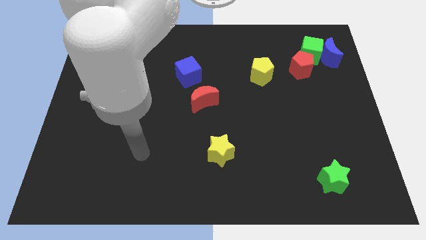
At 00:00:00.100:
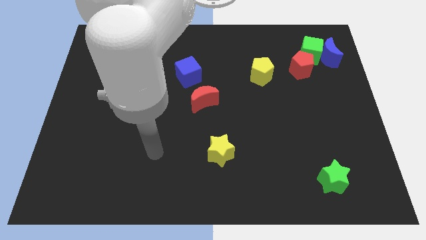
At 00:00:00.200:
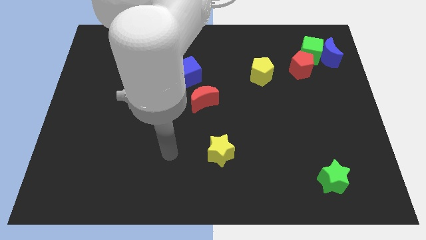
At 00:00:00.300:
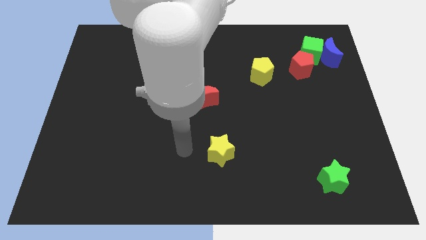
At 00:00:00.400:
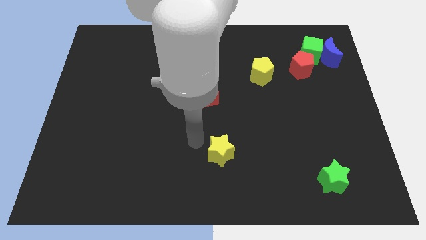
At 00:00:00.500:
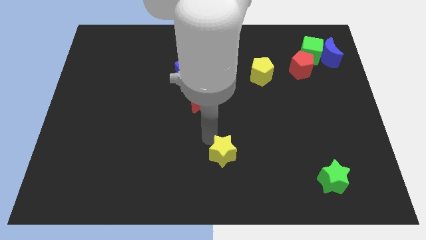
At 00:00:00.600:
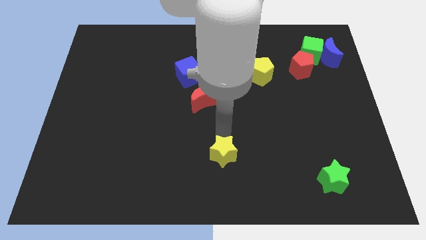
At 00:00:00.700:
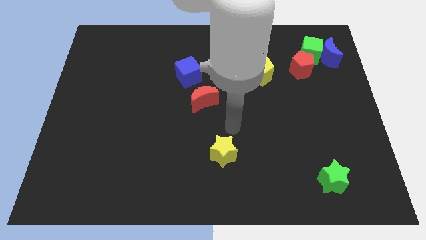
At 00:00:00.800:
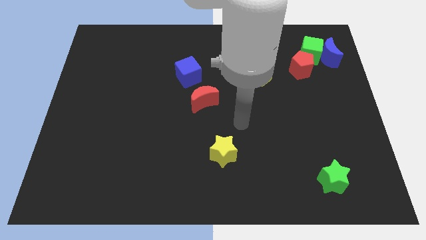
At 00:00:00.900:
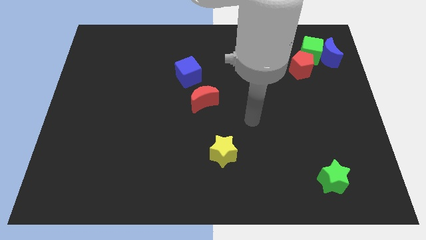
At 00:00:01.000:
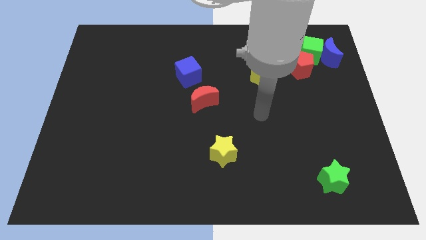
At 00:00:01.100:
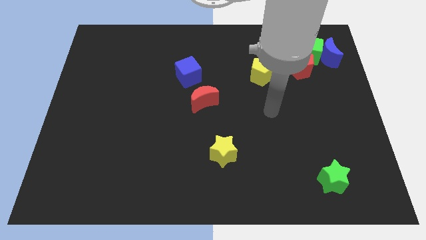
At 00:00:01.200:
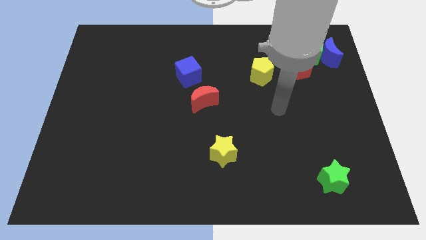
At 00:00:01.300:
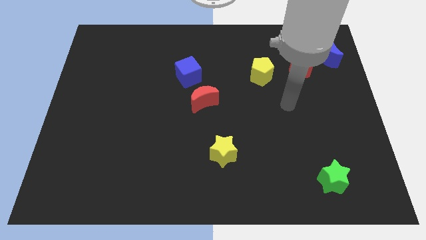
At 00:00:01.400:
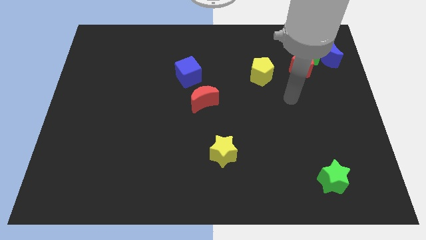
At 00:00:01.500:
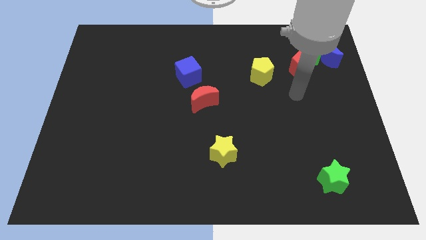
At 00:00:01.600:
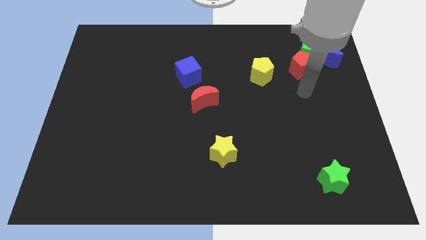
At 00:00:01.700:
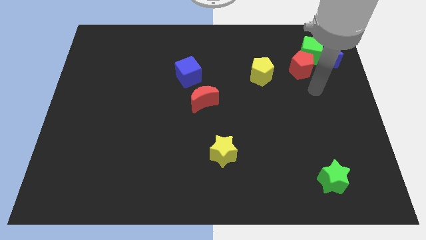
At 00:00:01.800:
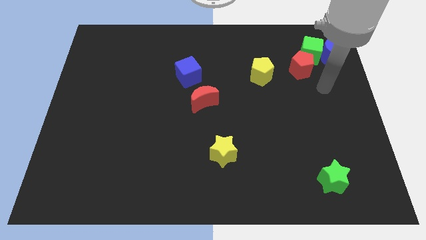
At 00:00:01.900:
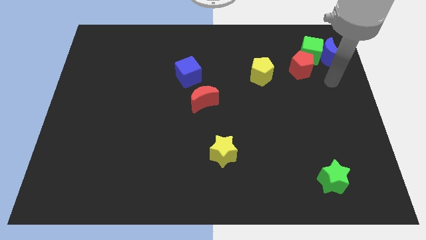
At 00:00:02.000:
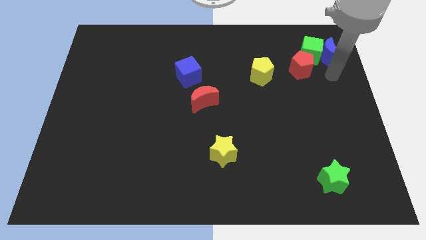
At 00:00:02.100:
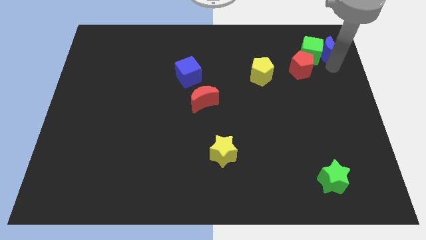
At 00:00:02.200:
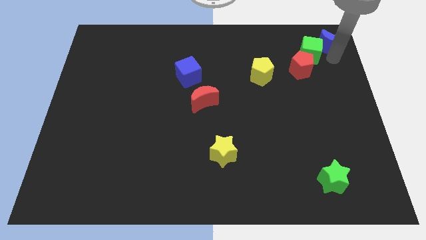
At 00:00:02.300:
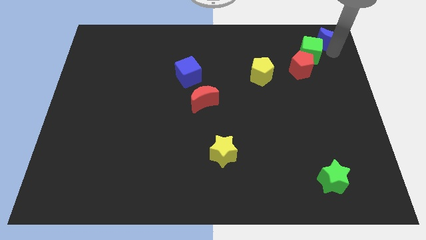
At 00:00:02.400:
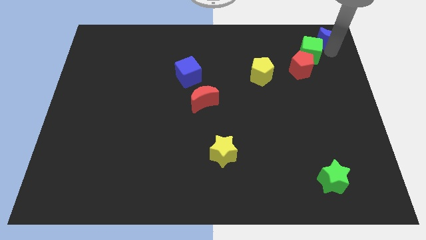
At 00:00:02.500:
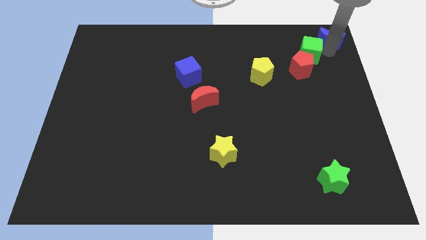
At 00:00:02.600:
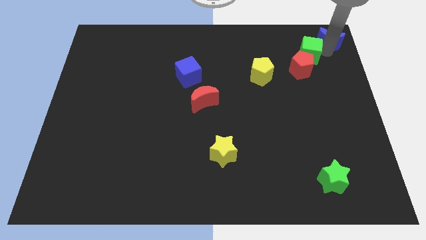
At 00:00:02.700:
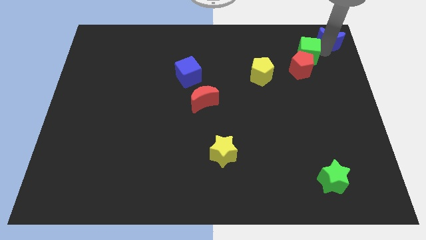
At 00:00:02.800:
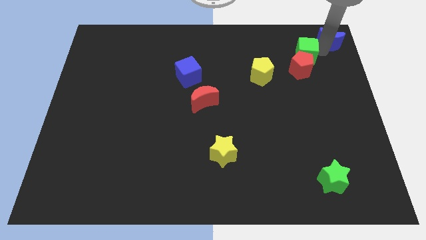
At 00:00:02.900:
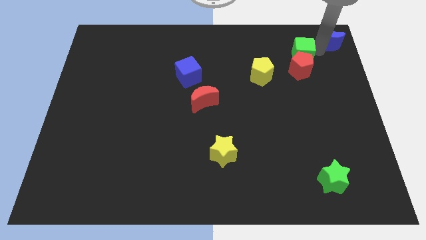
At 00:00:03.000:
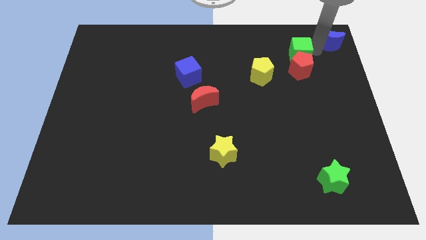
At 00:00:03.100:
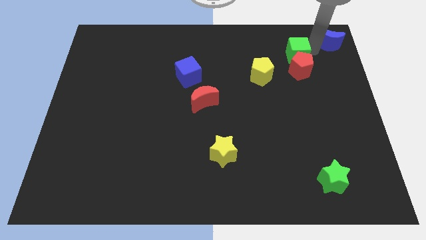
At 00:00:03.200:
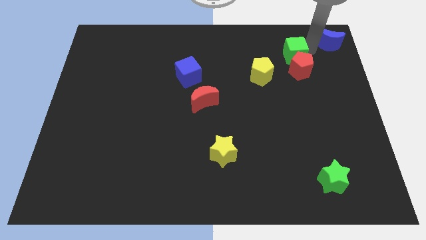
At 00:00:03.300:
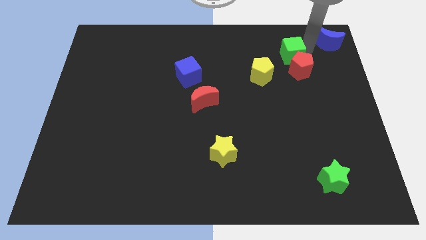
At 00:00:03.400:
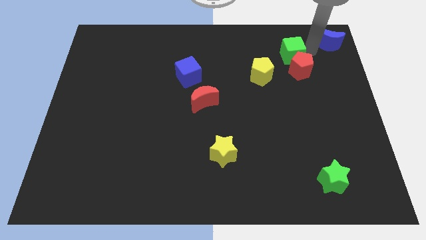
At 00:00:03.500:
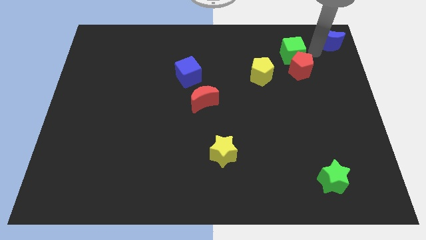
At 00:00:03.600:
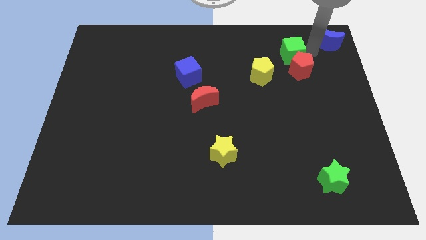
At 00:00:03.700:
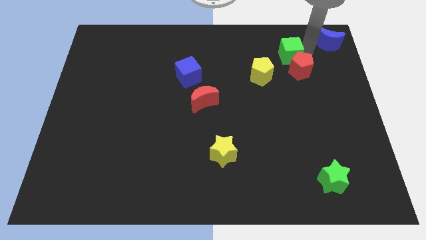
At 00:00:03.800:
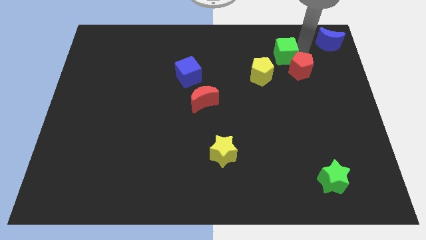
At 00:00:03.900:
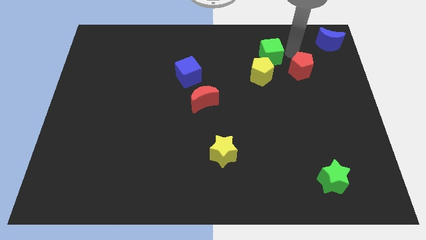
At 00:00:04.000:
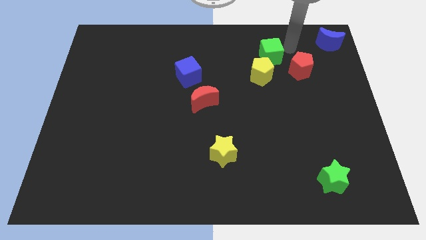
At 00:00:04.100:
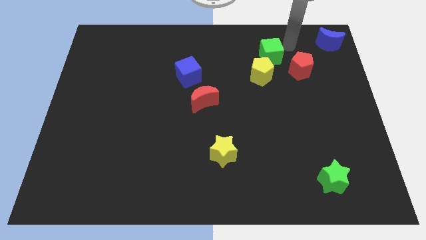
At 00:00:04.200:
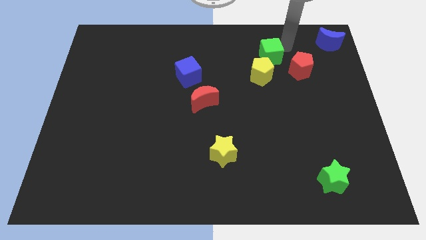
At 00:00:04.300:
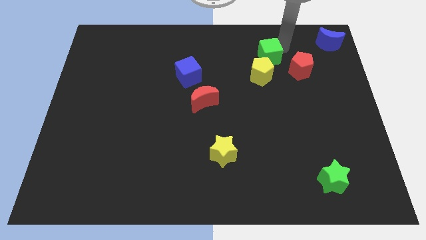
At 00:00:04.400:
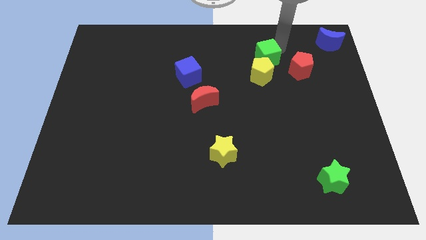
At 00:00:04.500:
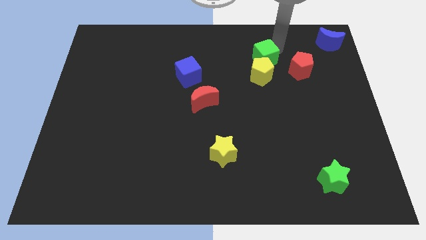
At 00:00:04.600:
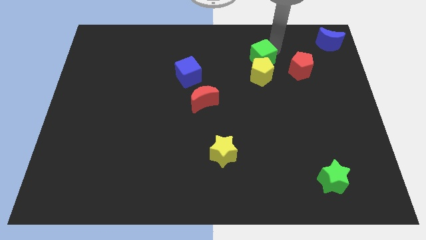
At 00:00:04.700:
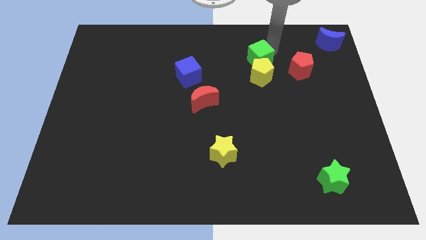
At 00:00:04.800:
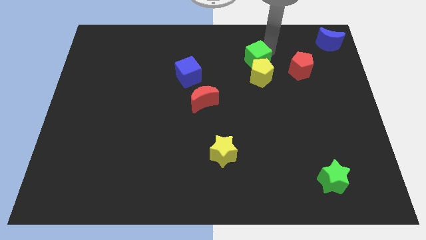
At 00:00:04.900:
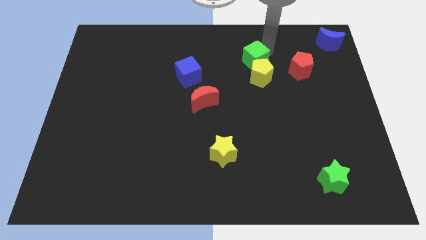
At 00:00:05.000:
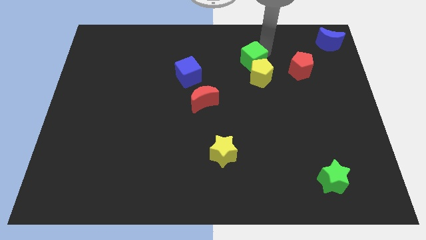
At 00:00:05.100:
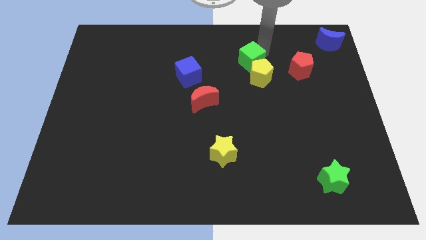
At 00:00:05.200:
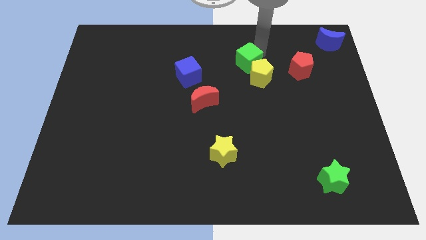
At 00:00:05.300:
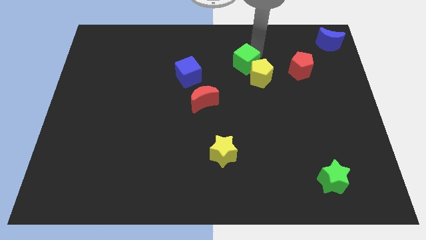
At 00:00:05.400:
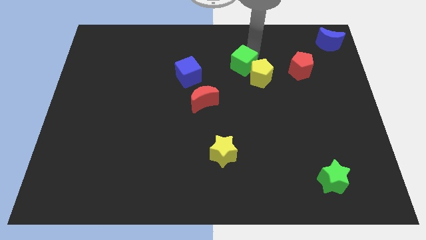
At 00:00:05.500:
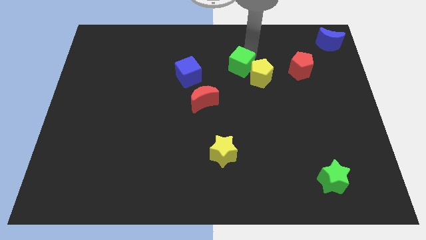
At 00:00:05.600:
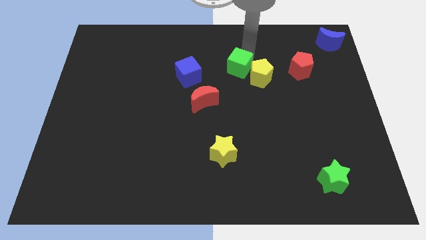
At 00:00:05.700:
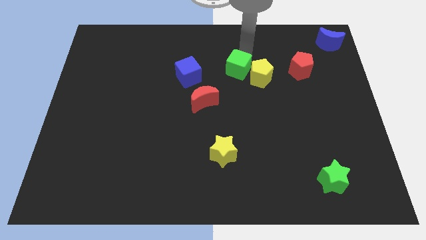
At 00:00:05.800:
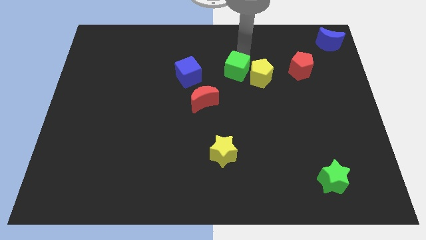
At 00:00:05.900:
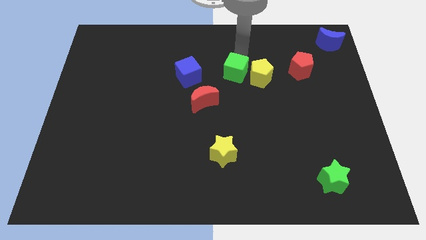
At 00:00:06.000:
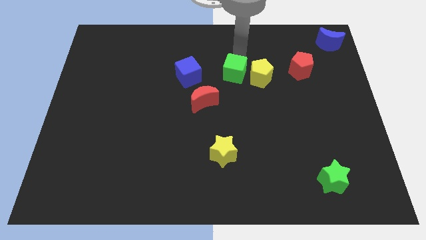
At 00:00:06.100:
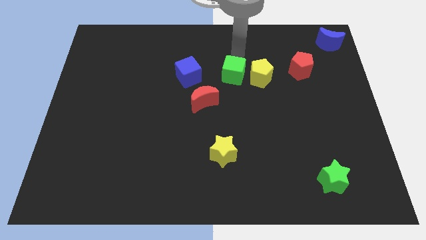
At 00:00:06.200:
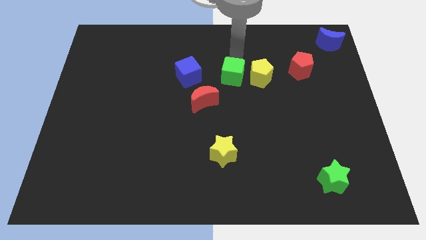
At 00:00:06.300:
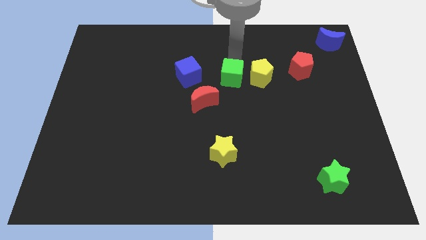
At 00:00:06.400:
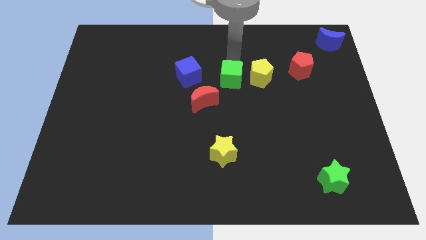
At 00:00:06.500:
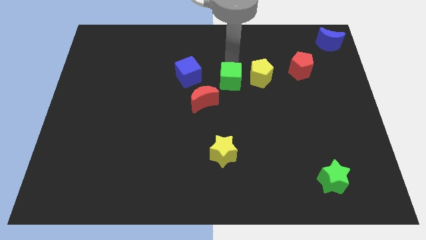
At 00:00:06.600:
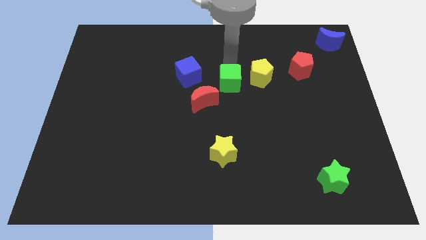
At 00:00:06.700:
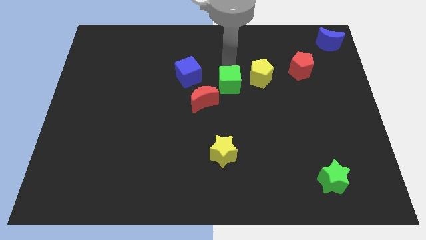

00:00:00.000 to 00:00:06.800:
slide the green cube down and left

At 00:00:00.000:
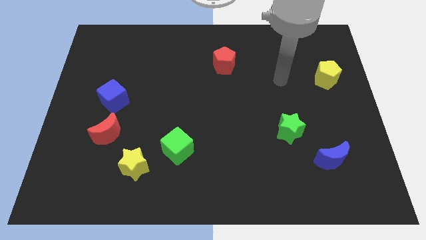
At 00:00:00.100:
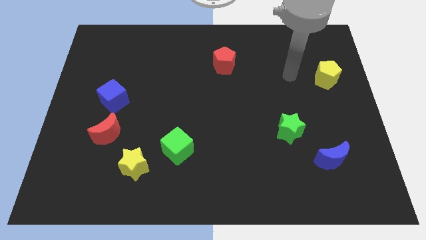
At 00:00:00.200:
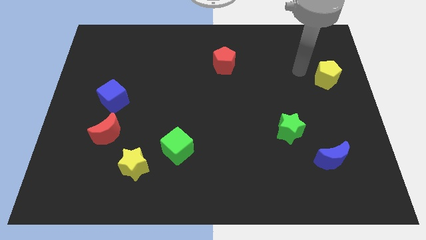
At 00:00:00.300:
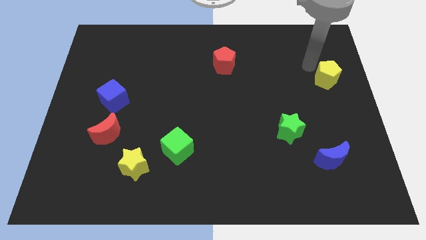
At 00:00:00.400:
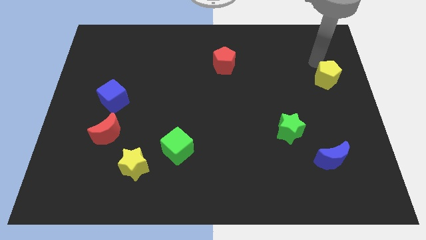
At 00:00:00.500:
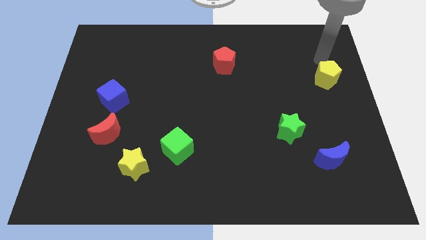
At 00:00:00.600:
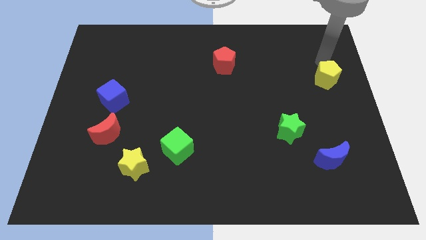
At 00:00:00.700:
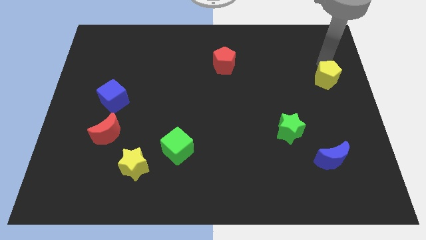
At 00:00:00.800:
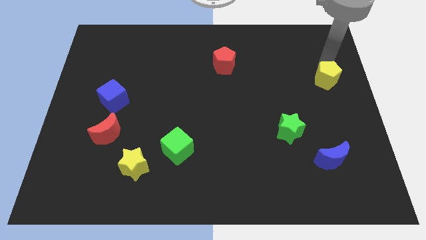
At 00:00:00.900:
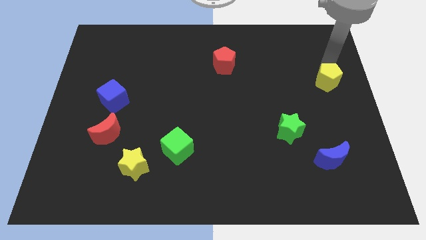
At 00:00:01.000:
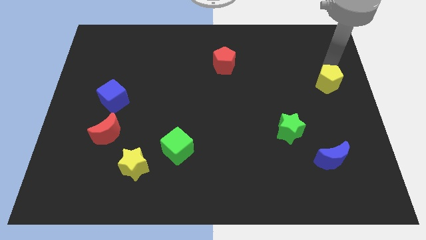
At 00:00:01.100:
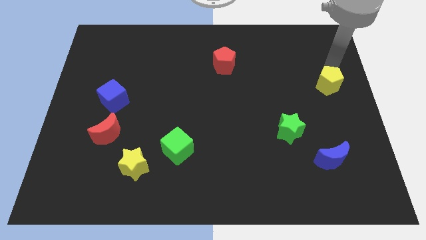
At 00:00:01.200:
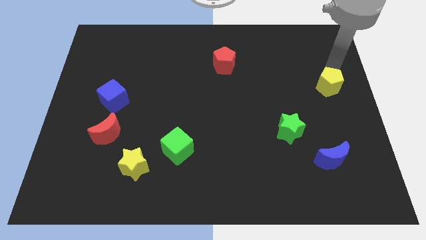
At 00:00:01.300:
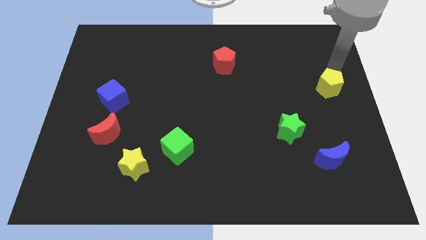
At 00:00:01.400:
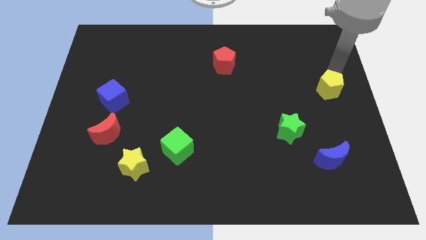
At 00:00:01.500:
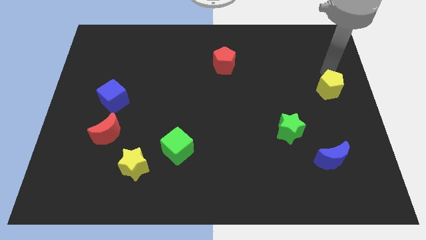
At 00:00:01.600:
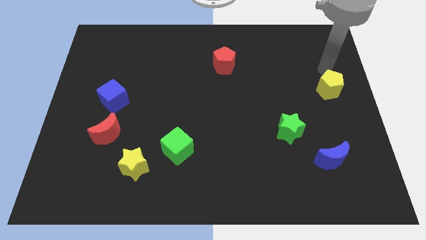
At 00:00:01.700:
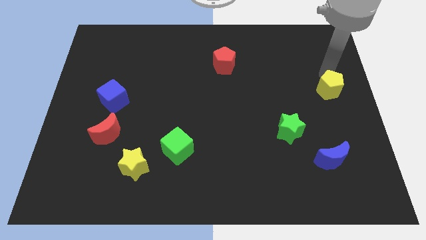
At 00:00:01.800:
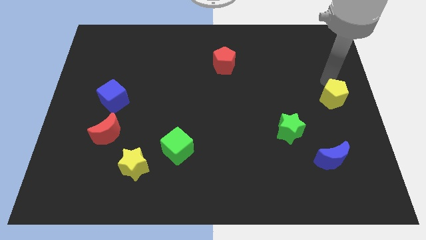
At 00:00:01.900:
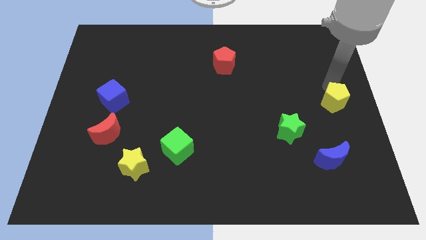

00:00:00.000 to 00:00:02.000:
move the yellow pentagon down a little bit
